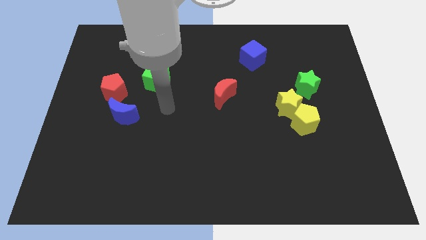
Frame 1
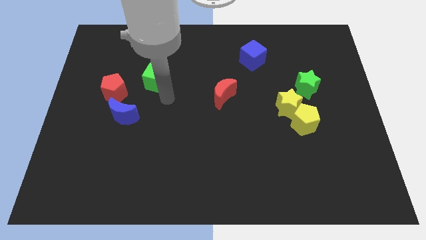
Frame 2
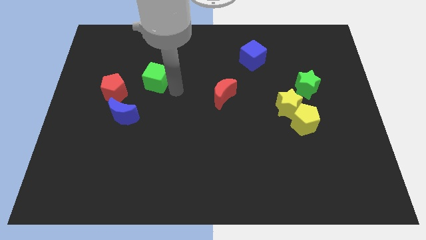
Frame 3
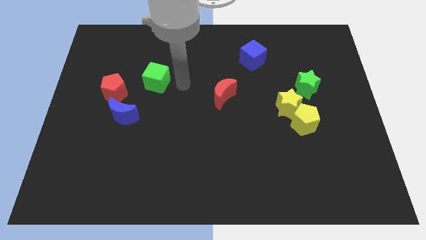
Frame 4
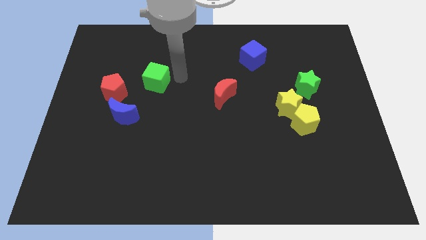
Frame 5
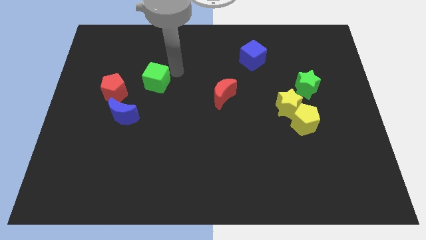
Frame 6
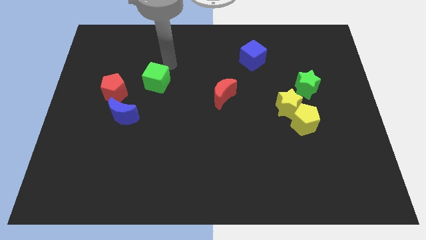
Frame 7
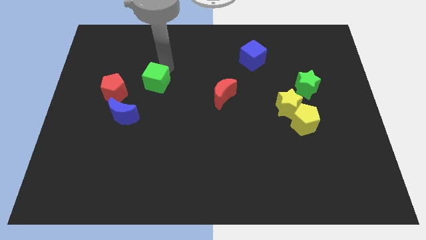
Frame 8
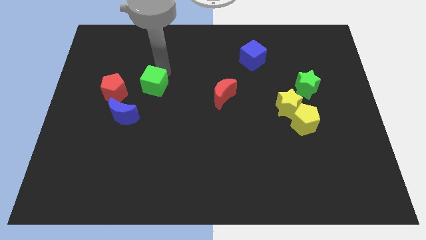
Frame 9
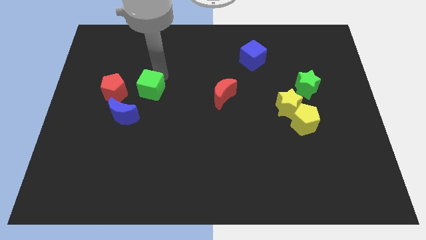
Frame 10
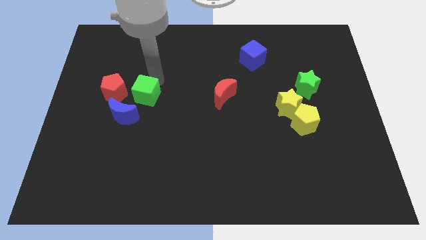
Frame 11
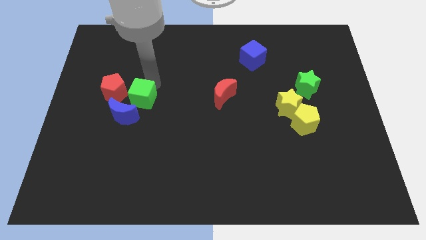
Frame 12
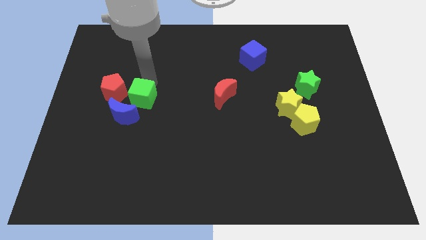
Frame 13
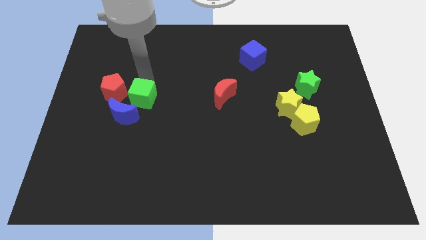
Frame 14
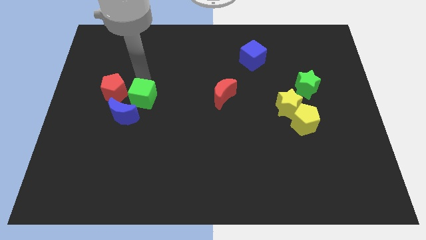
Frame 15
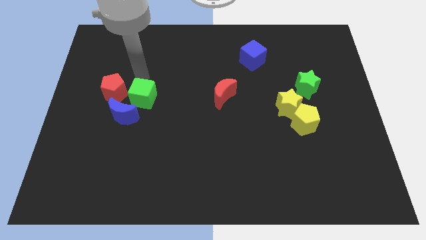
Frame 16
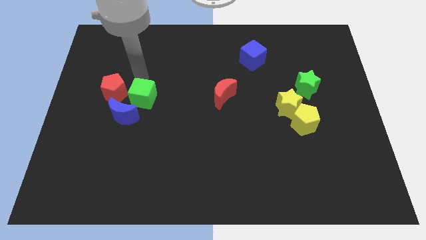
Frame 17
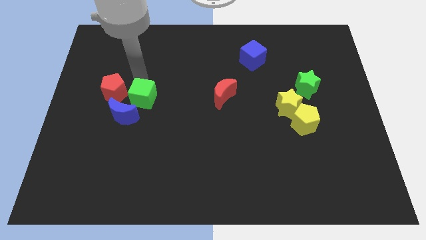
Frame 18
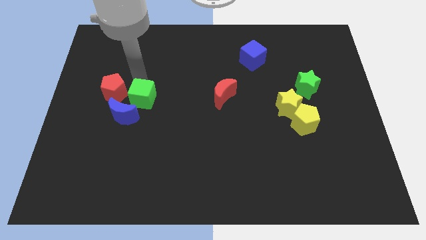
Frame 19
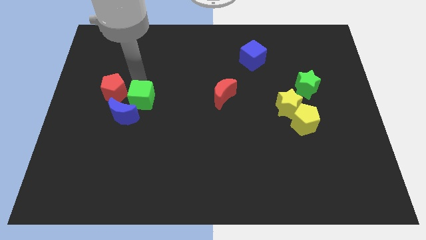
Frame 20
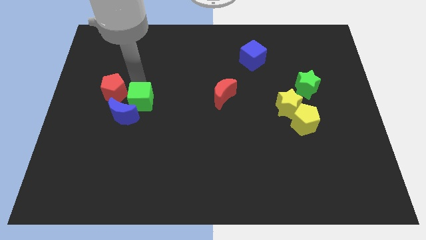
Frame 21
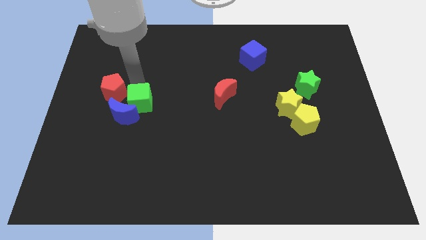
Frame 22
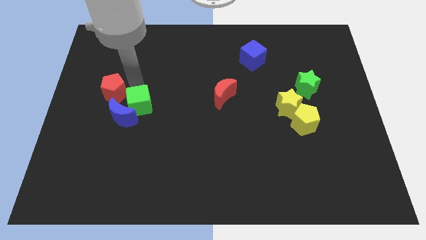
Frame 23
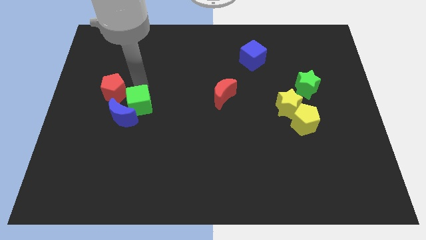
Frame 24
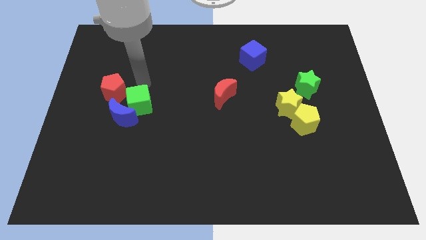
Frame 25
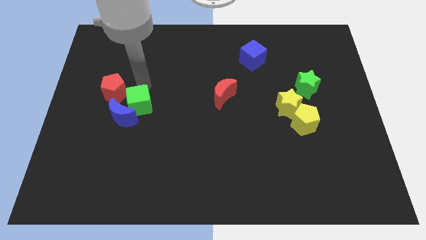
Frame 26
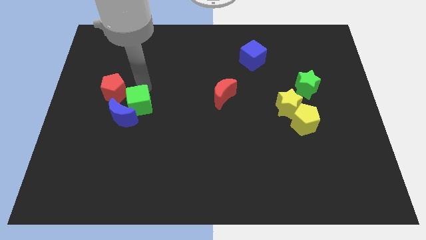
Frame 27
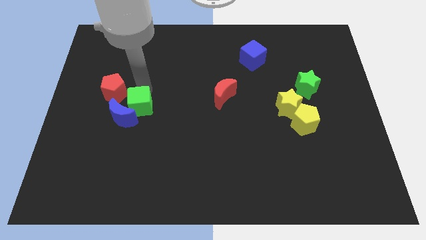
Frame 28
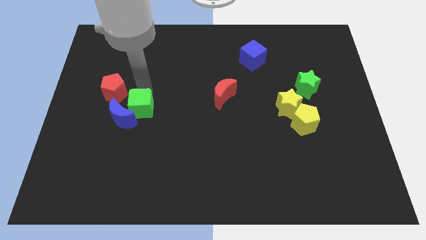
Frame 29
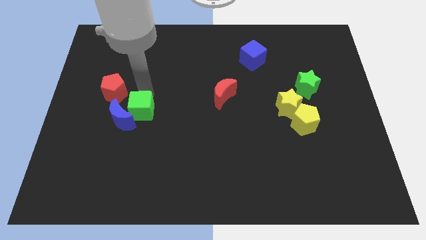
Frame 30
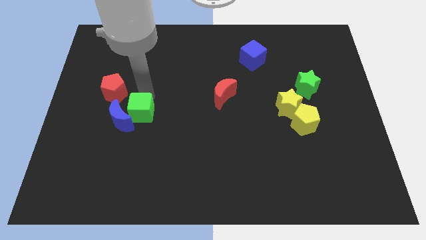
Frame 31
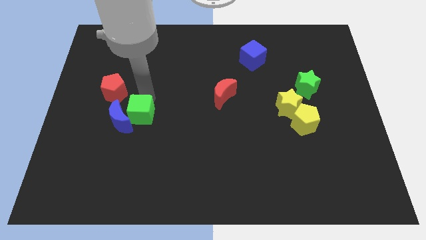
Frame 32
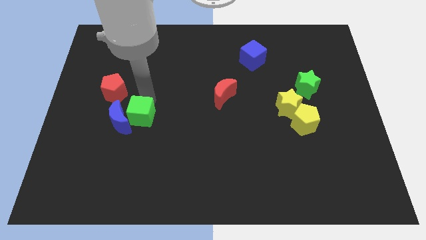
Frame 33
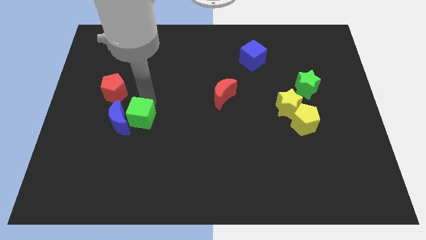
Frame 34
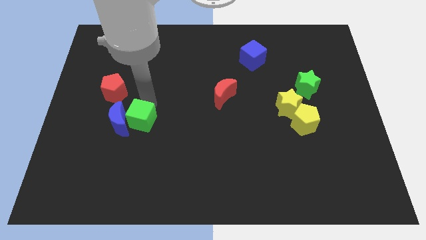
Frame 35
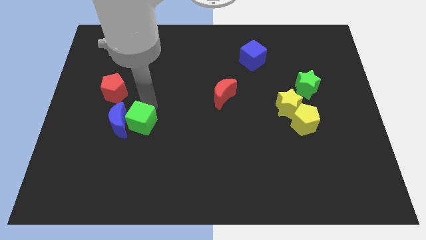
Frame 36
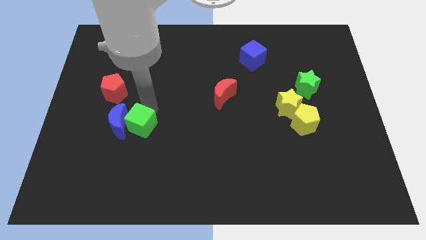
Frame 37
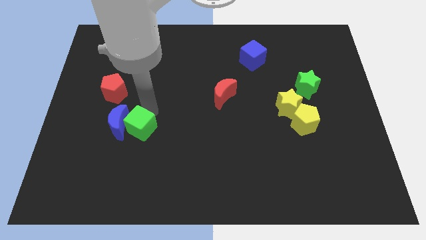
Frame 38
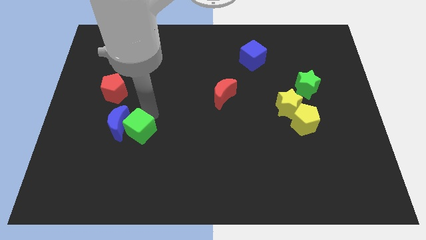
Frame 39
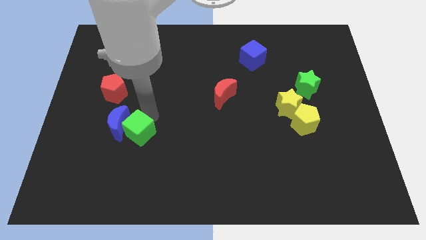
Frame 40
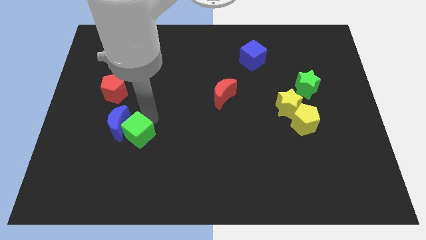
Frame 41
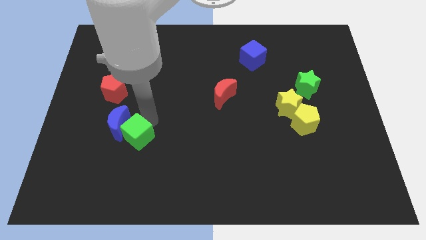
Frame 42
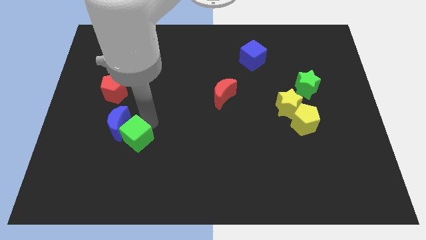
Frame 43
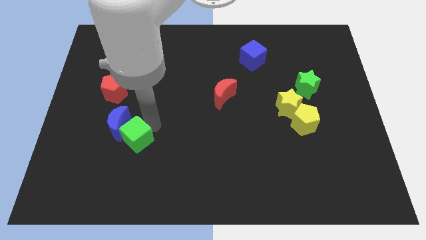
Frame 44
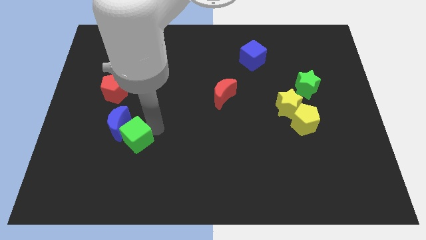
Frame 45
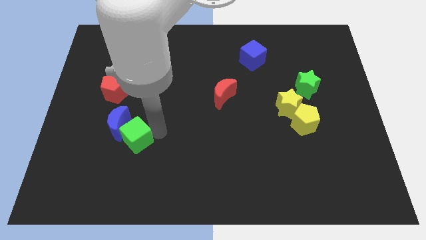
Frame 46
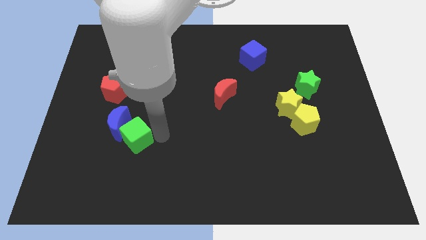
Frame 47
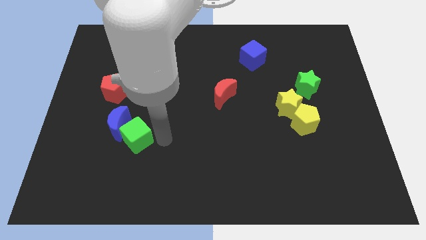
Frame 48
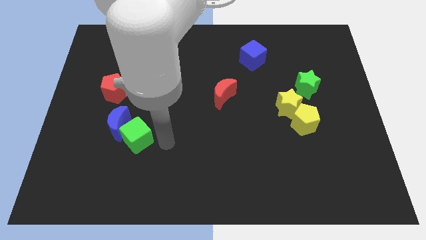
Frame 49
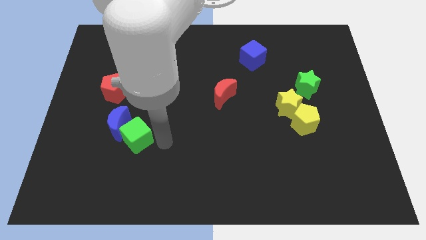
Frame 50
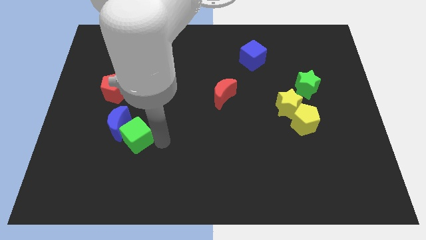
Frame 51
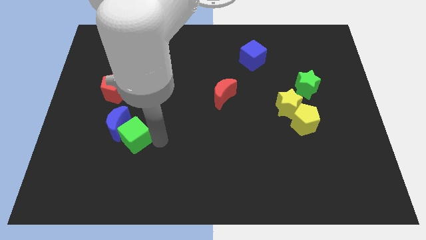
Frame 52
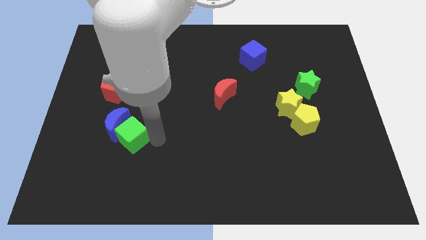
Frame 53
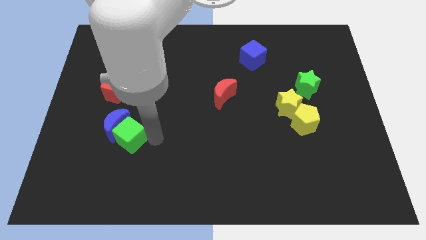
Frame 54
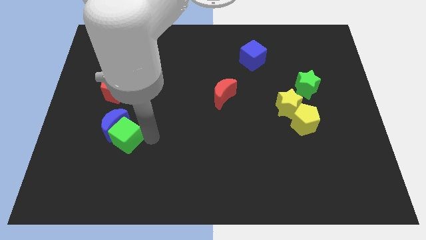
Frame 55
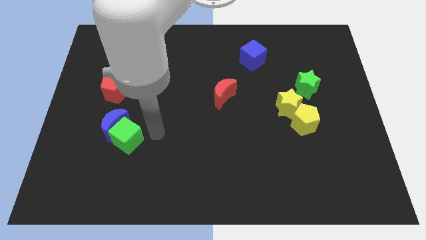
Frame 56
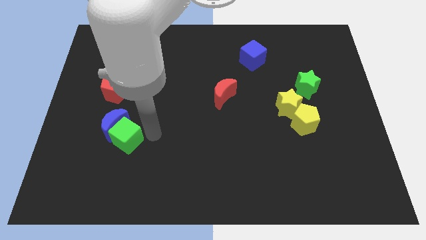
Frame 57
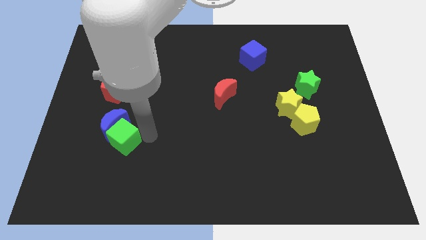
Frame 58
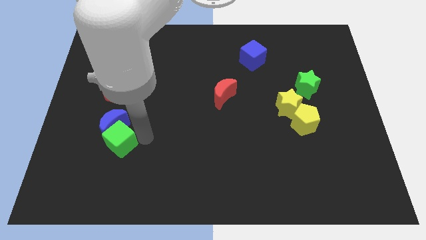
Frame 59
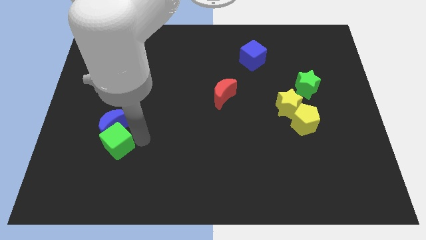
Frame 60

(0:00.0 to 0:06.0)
push the green cube to the bottom left side of the blue moon
